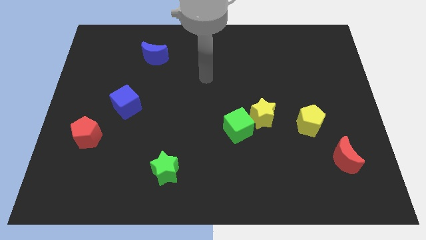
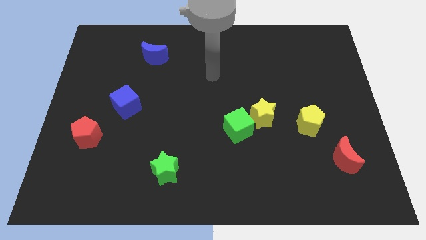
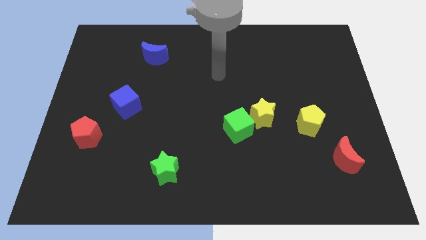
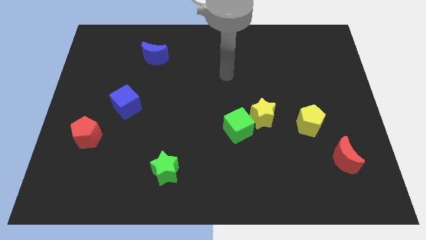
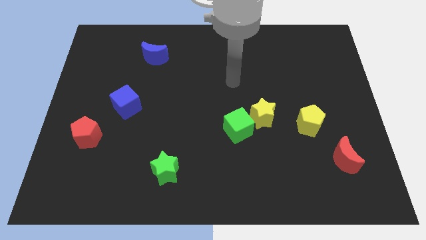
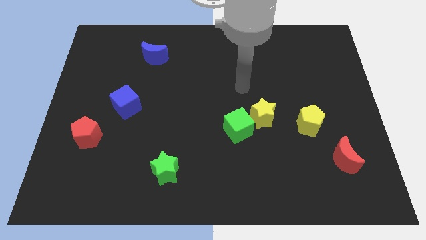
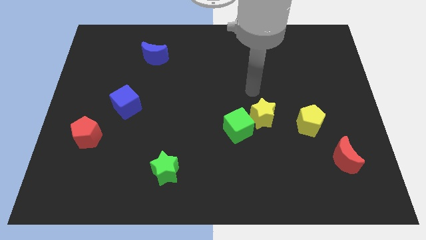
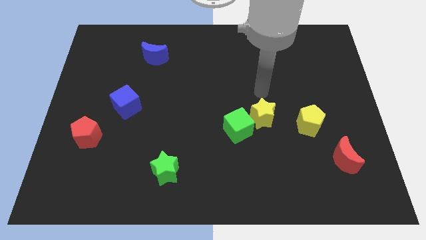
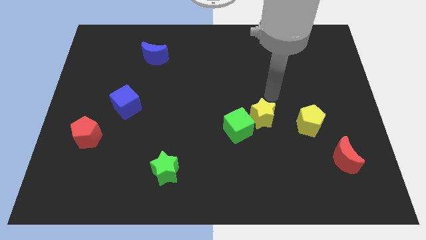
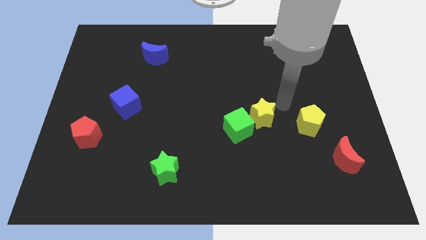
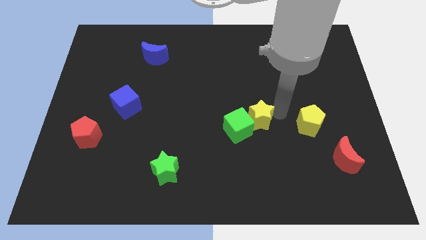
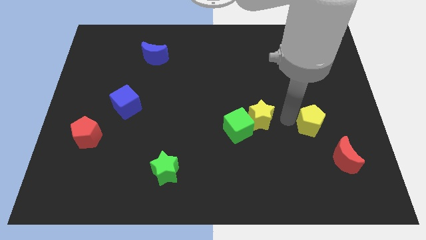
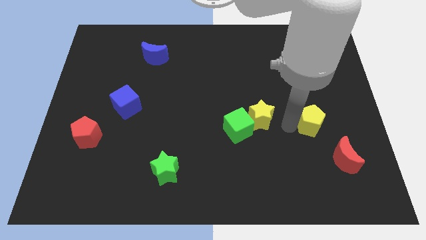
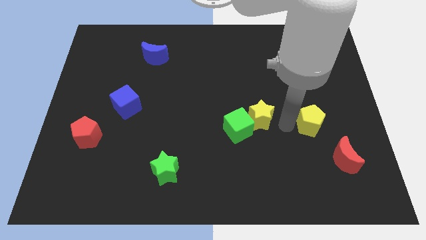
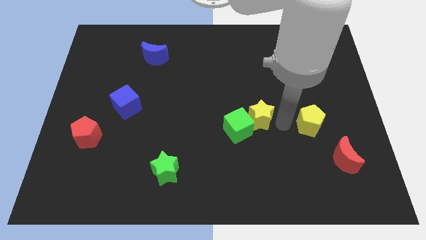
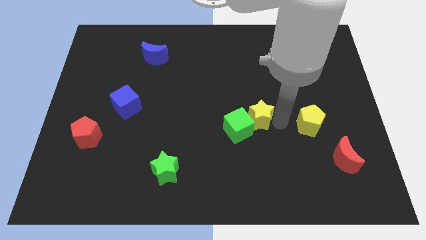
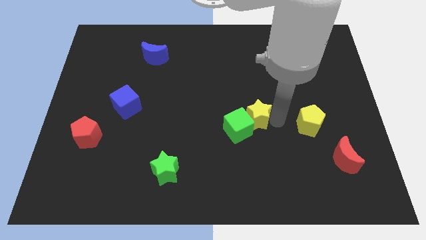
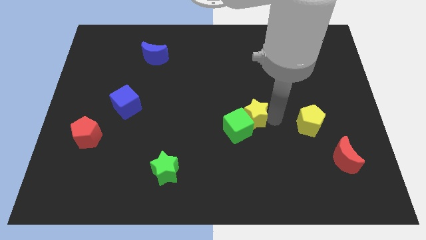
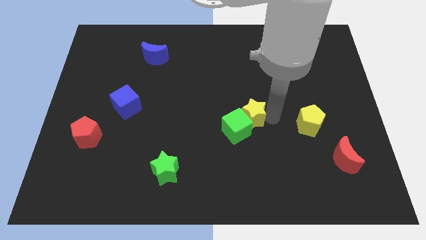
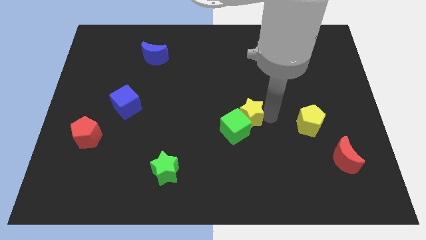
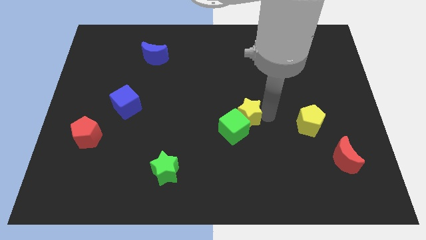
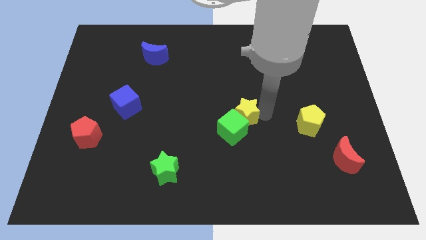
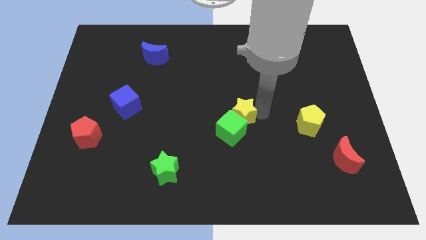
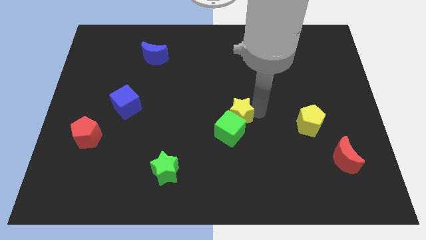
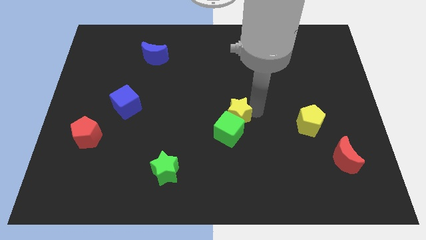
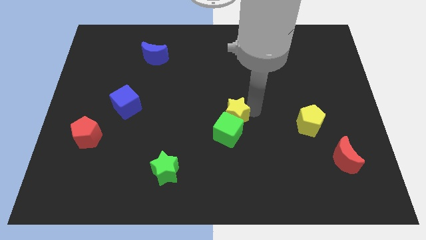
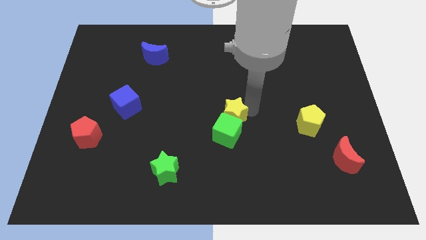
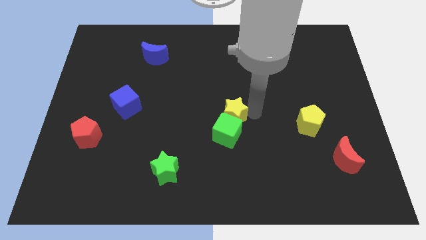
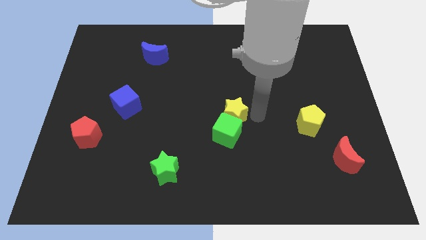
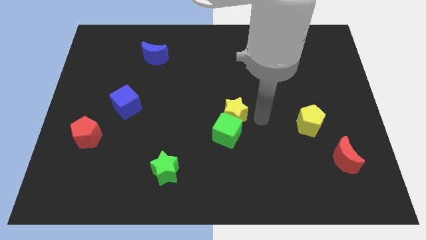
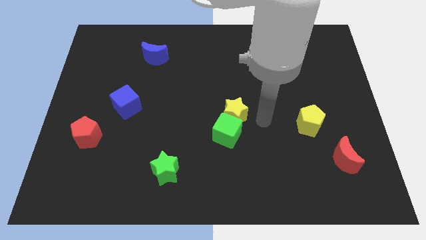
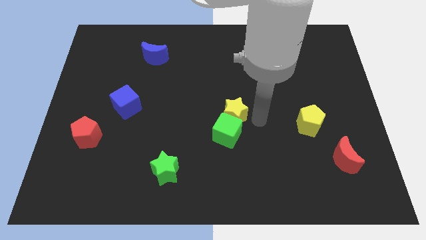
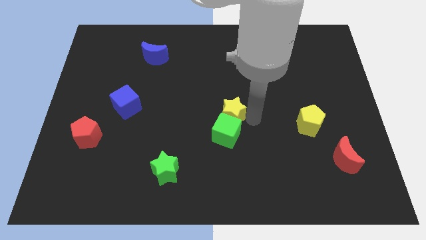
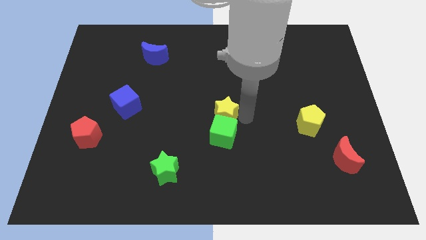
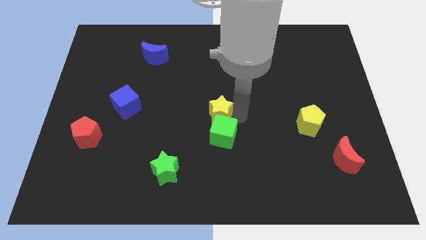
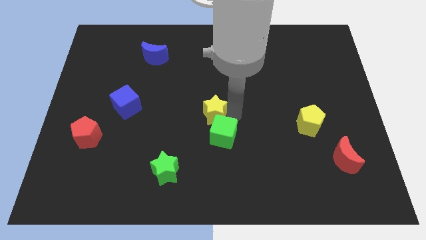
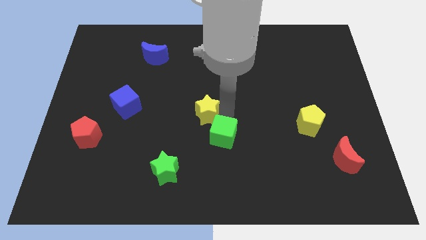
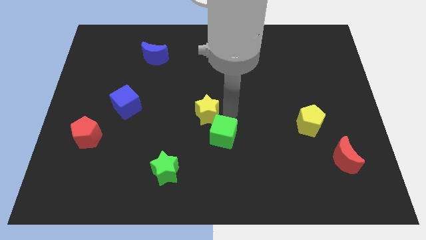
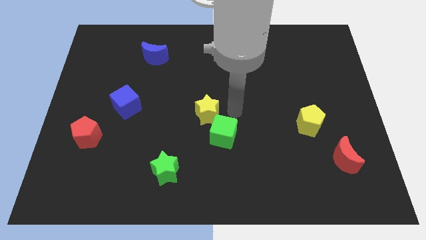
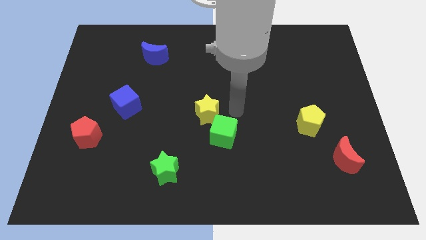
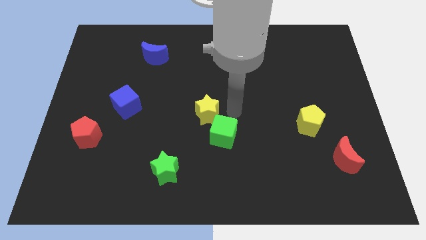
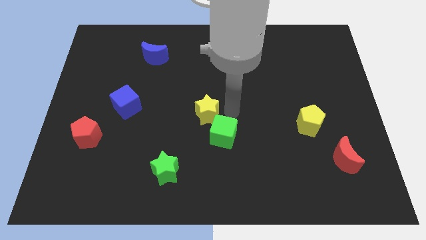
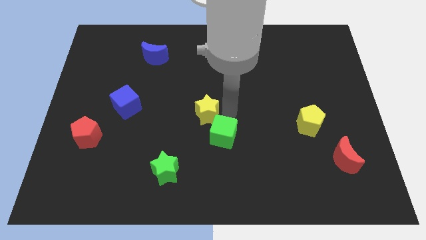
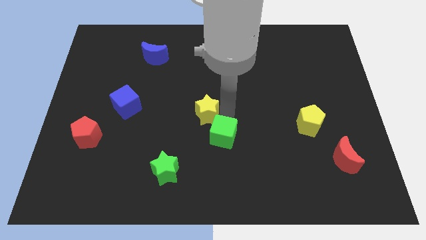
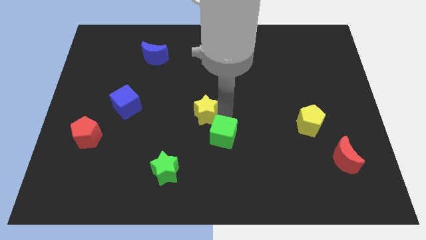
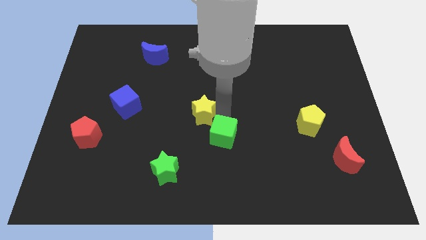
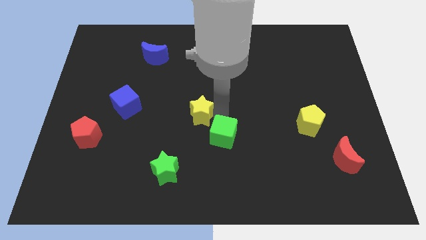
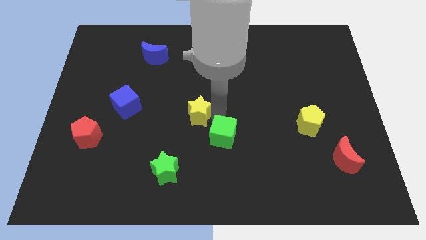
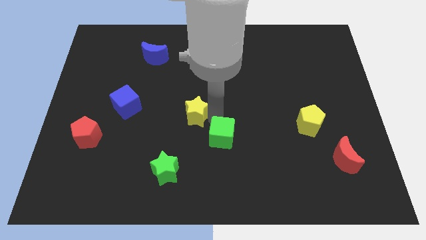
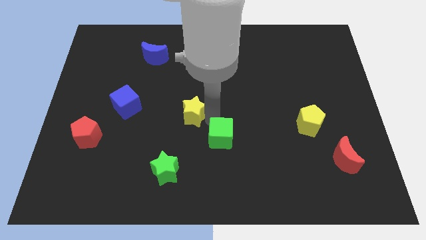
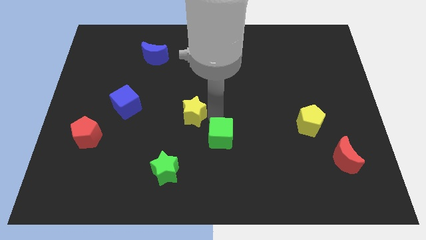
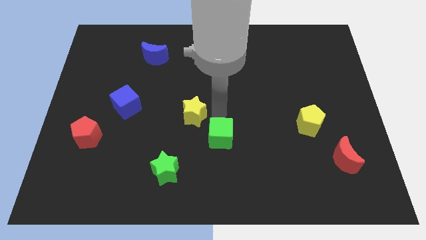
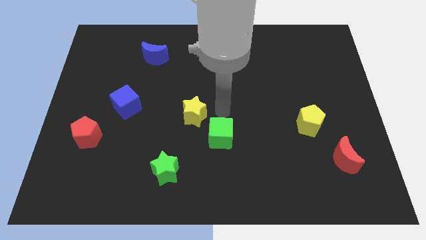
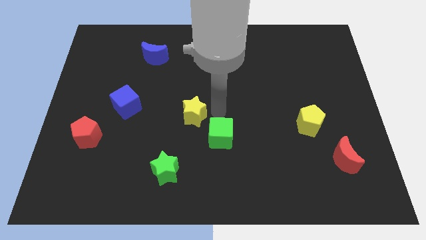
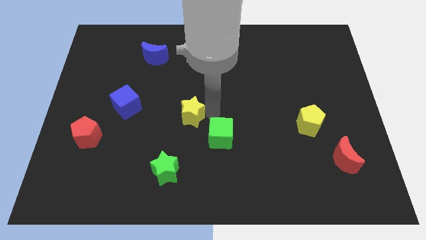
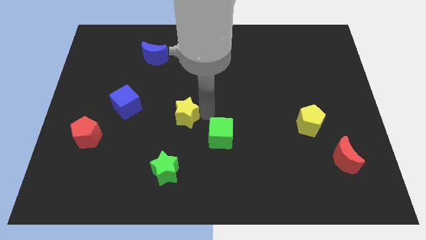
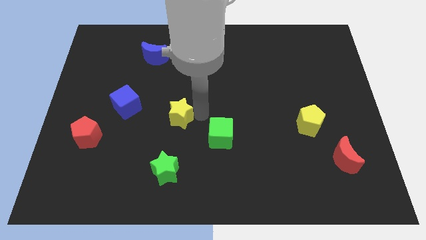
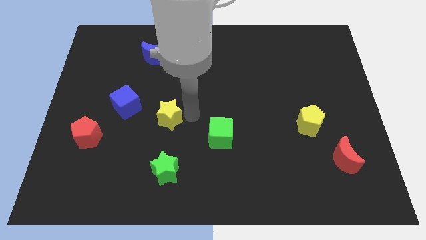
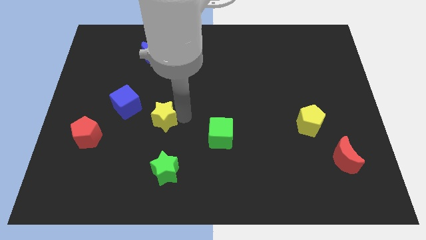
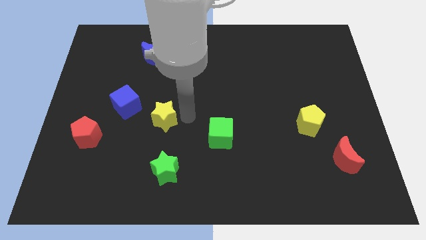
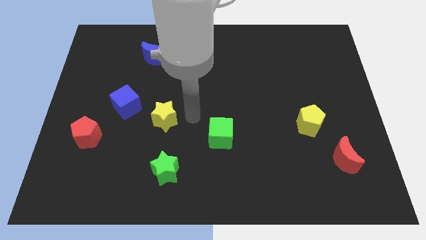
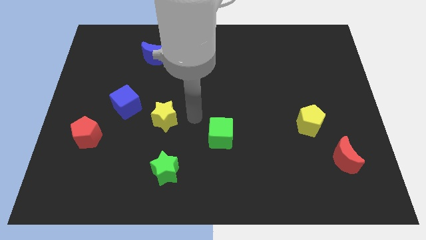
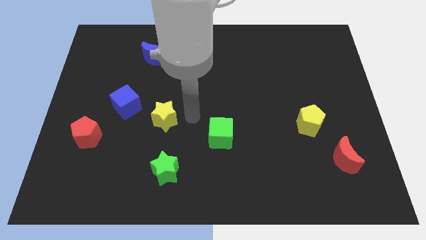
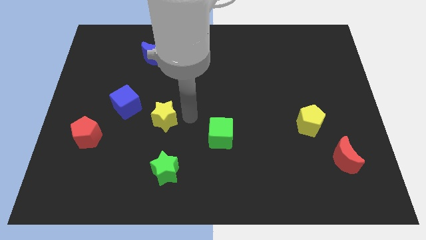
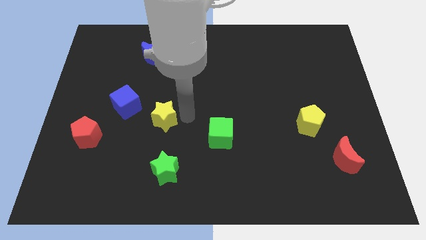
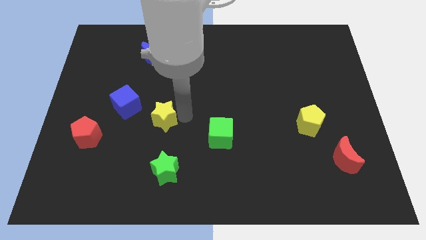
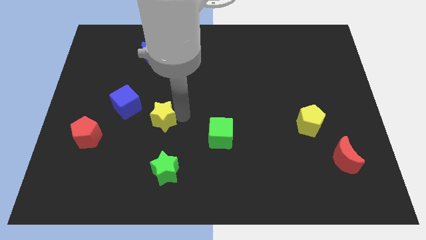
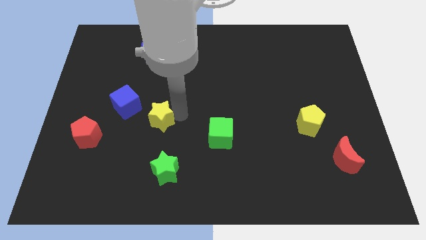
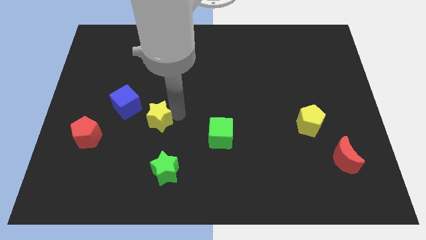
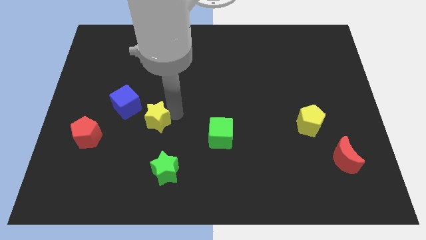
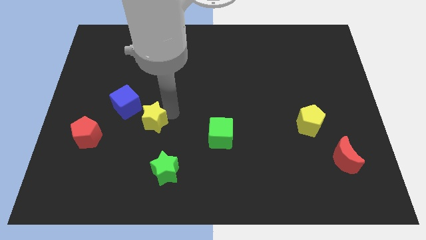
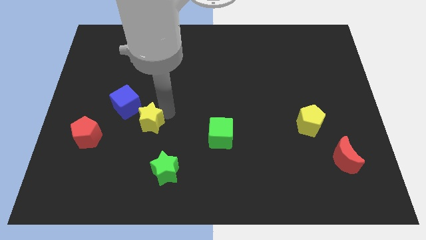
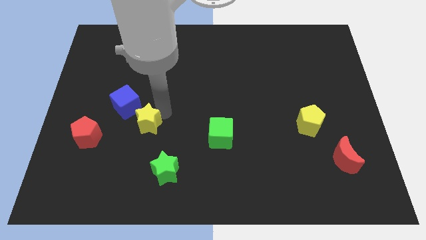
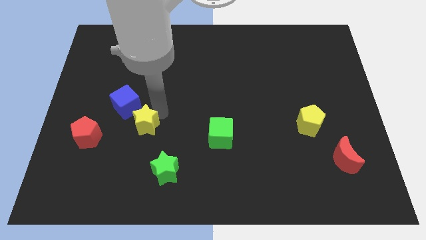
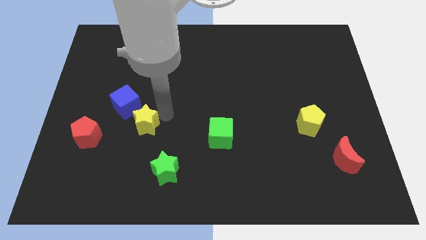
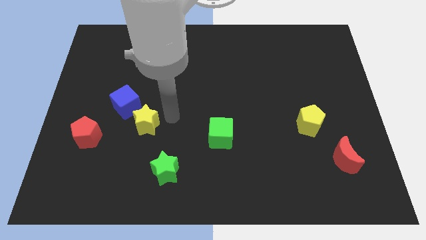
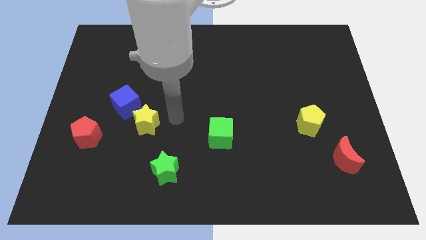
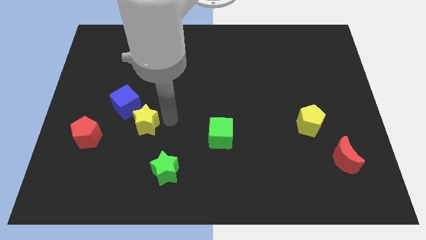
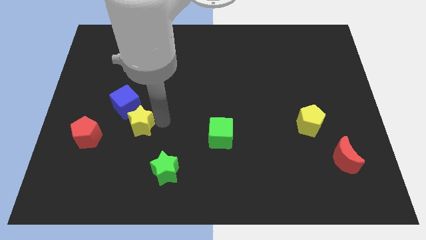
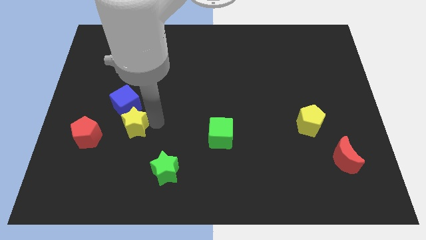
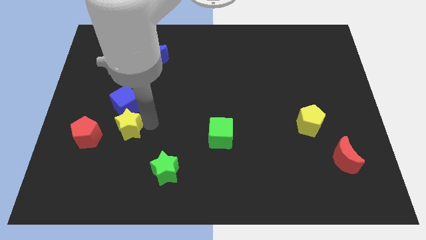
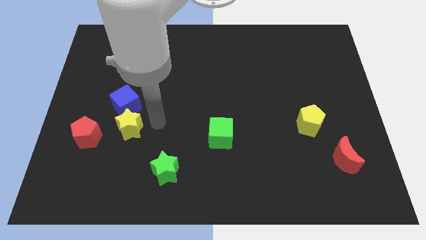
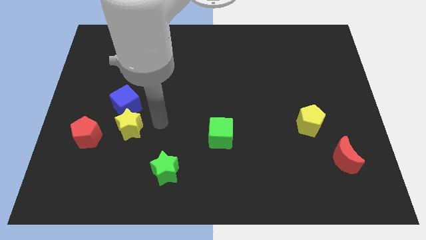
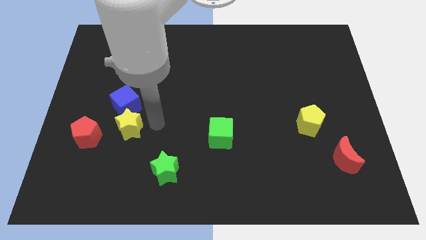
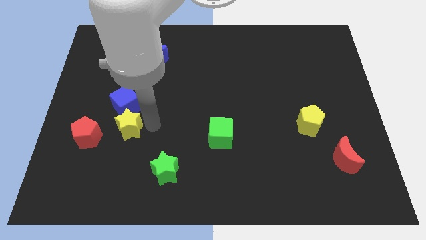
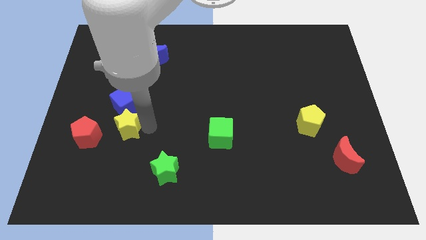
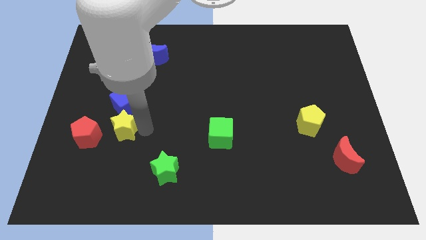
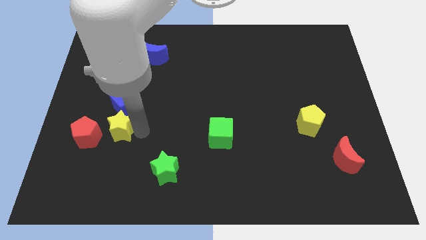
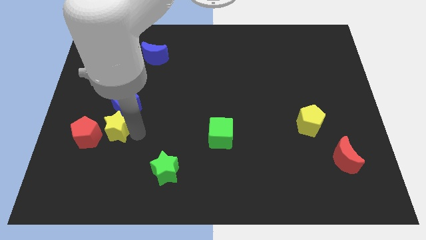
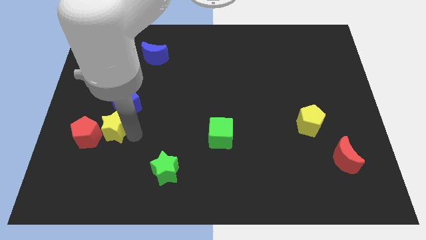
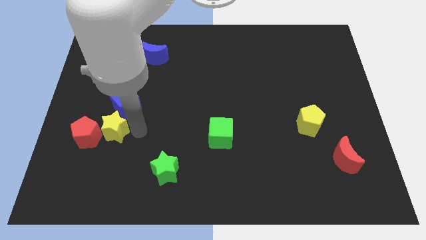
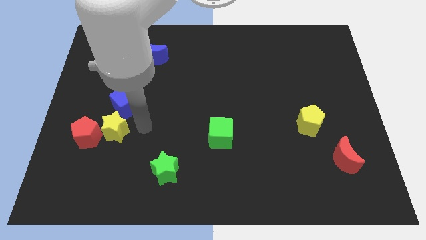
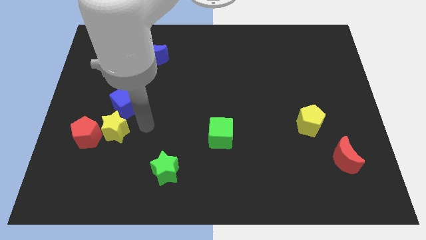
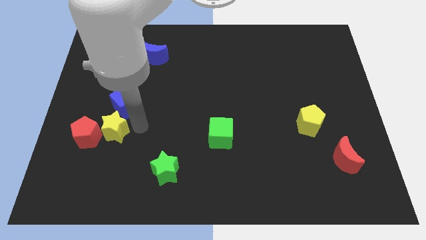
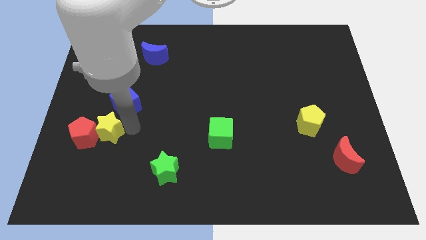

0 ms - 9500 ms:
slide the yellow star towards the red pentagon
